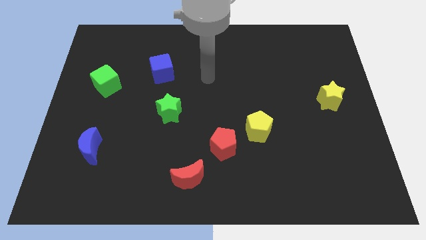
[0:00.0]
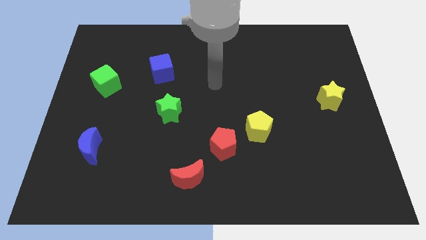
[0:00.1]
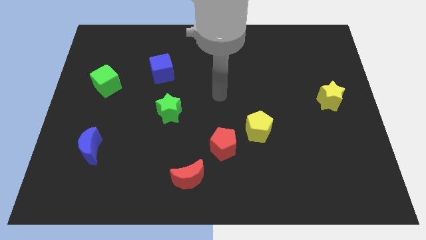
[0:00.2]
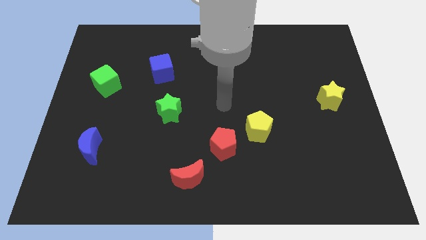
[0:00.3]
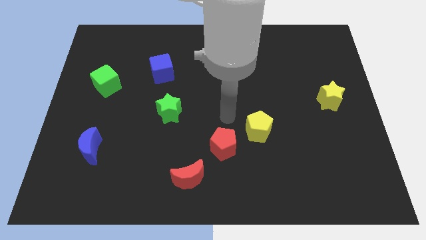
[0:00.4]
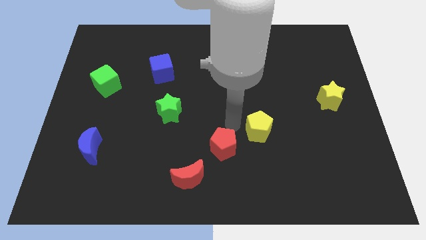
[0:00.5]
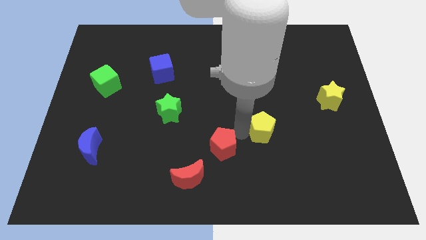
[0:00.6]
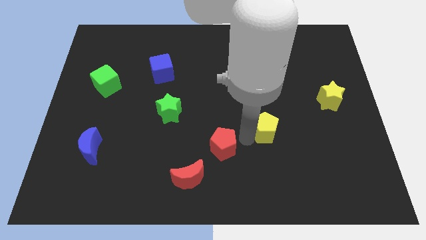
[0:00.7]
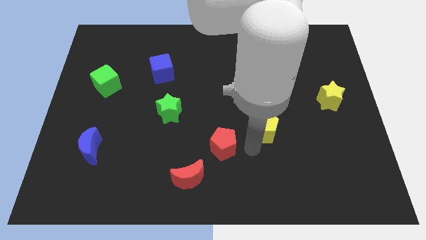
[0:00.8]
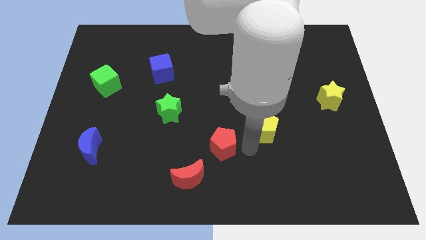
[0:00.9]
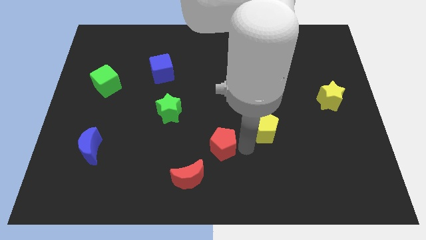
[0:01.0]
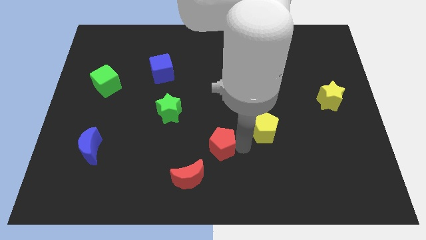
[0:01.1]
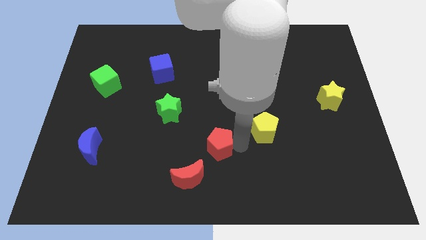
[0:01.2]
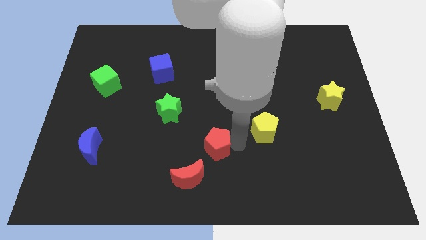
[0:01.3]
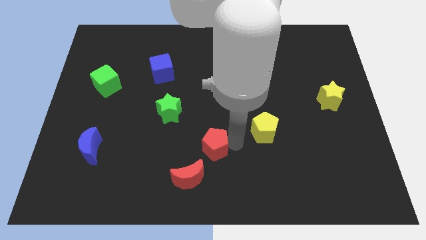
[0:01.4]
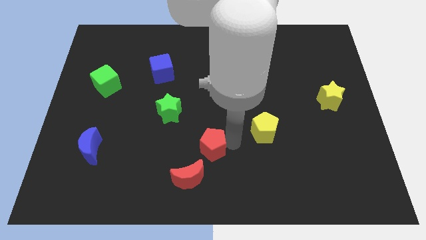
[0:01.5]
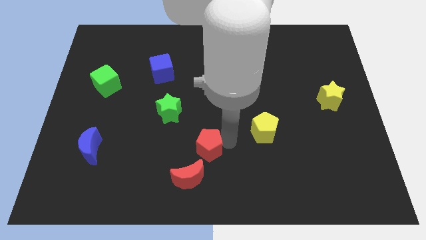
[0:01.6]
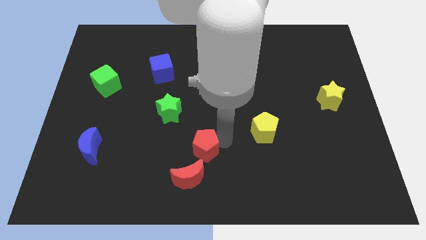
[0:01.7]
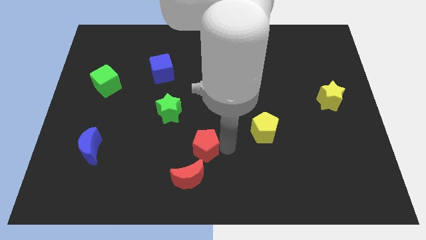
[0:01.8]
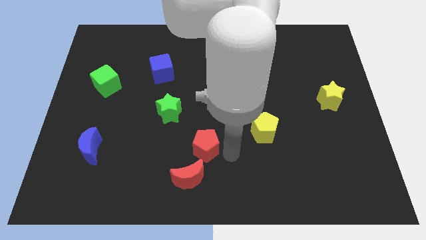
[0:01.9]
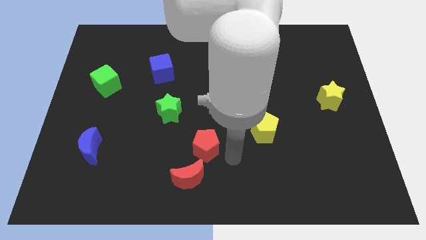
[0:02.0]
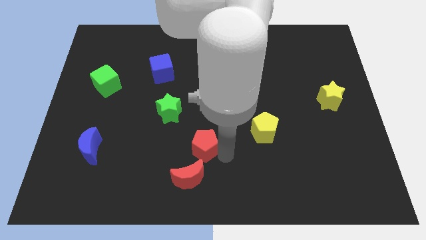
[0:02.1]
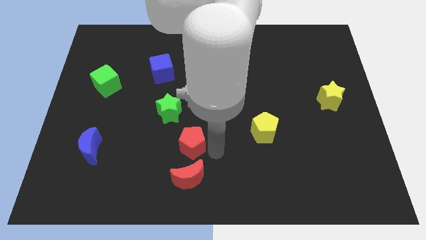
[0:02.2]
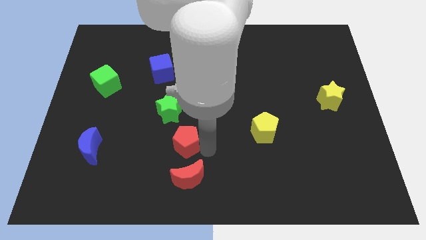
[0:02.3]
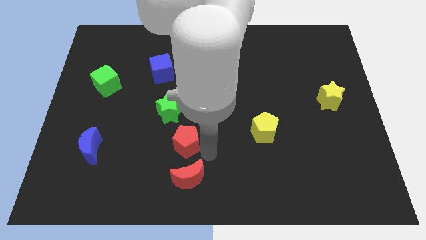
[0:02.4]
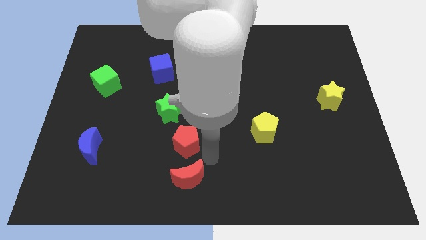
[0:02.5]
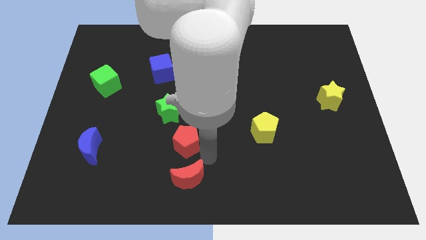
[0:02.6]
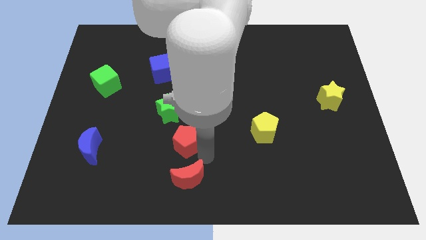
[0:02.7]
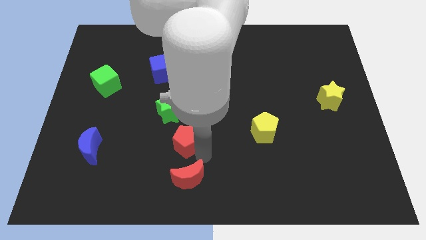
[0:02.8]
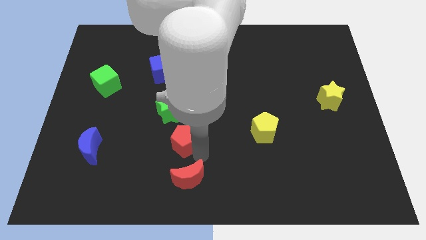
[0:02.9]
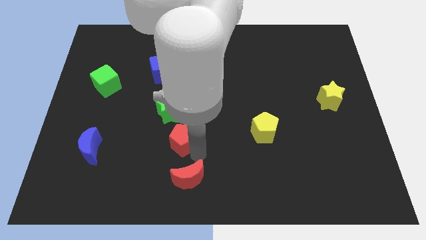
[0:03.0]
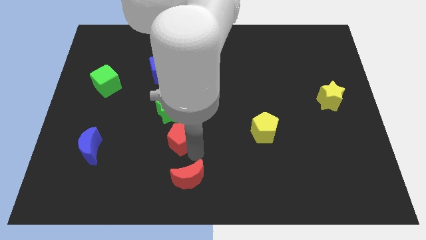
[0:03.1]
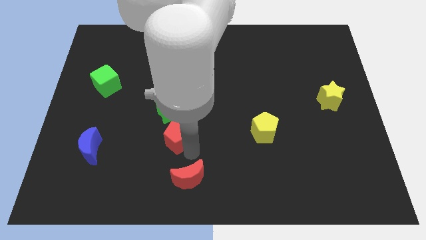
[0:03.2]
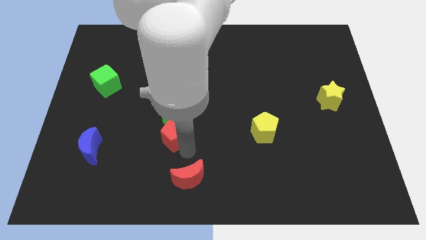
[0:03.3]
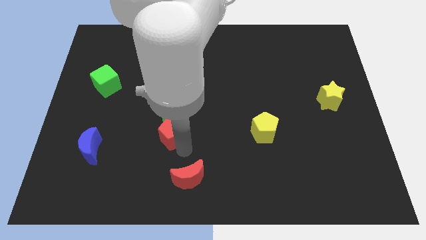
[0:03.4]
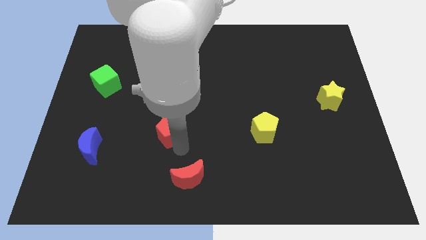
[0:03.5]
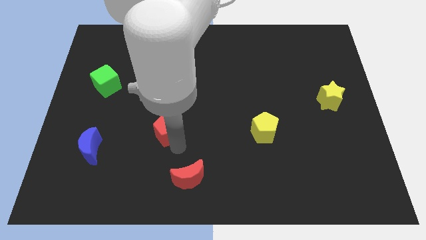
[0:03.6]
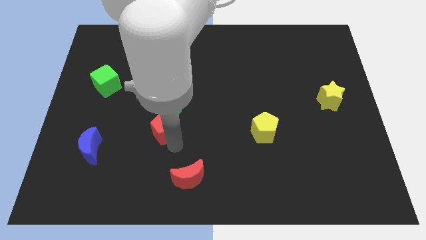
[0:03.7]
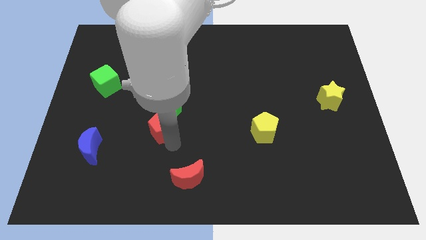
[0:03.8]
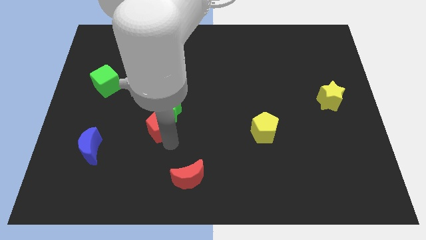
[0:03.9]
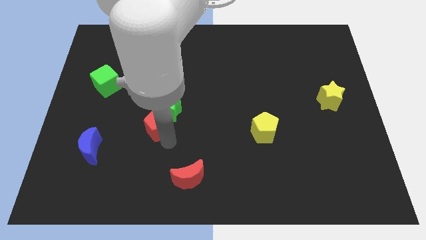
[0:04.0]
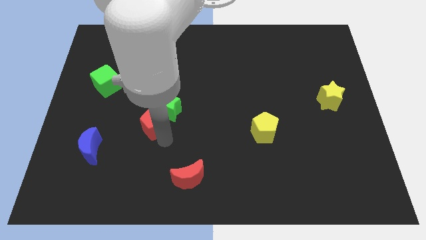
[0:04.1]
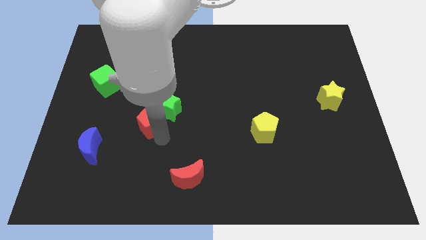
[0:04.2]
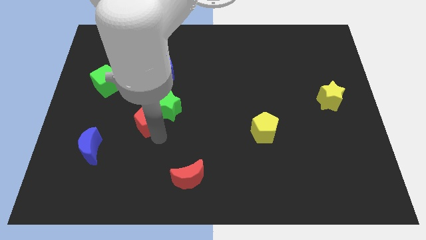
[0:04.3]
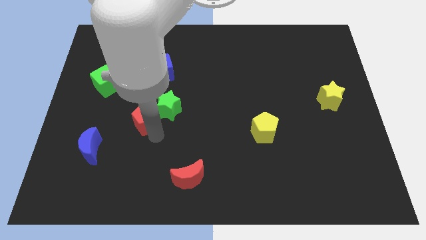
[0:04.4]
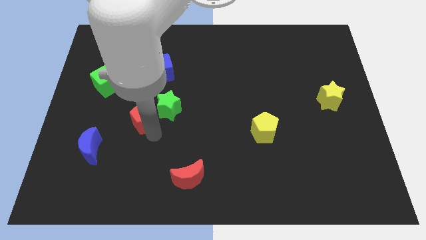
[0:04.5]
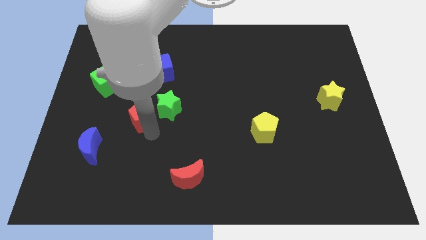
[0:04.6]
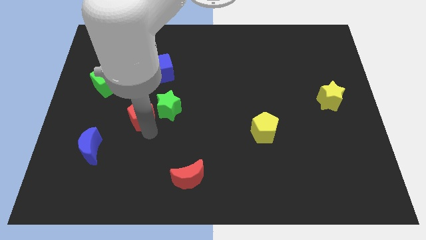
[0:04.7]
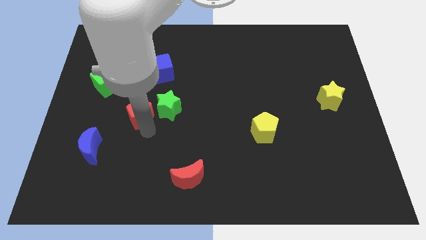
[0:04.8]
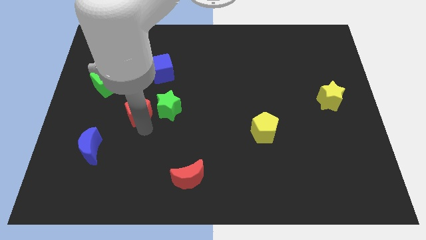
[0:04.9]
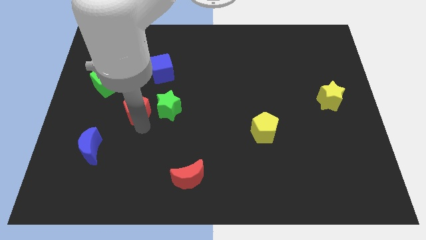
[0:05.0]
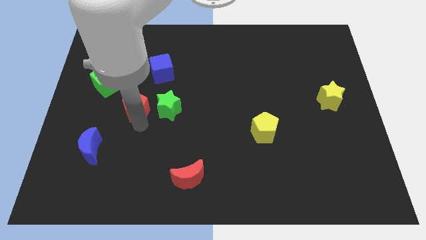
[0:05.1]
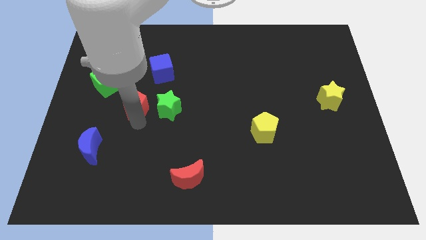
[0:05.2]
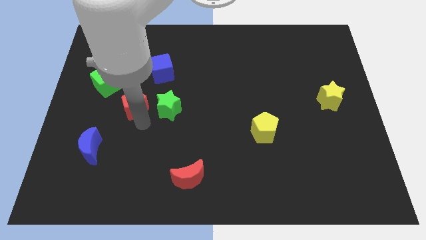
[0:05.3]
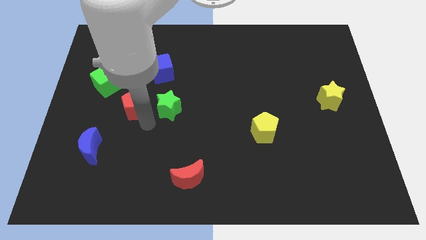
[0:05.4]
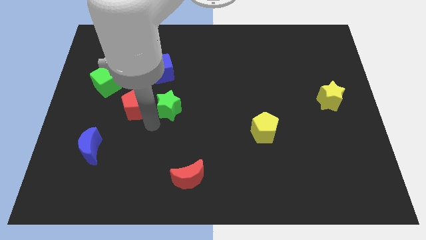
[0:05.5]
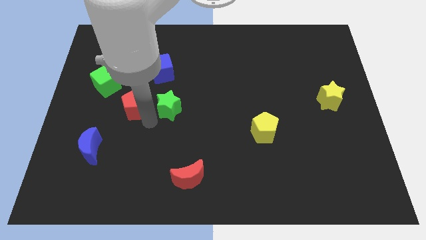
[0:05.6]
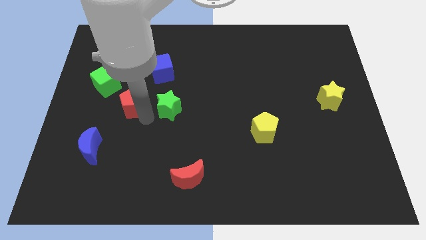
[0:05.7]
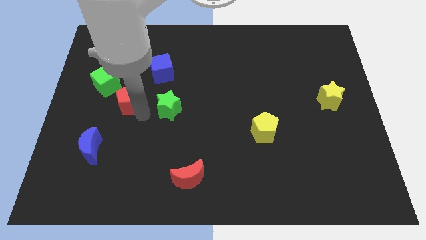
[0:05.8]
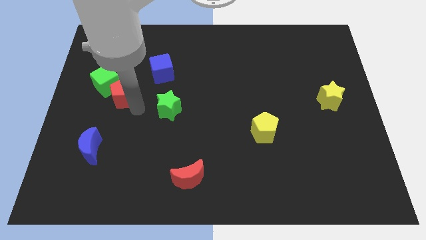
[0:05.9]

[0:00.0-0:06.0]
push the red pentagon to the green cube

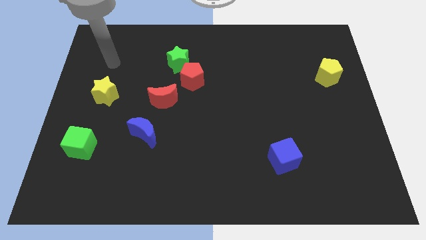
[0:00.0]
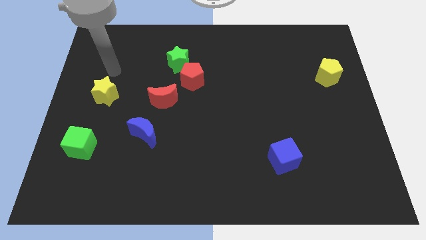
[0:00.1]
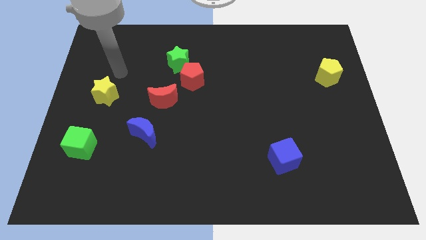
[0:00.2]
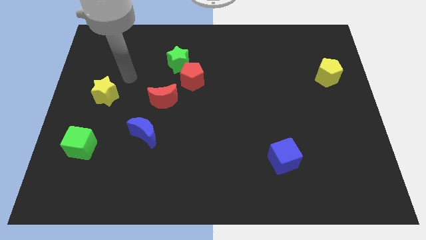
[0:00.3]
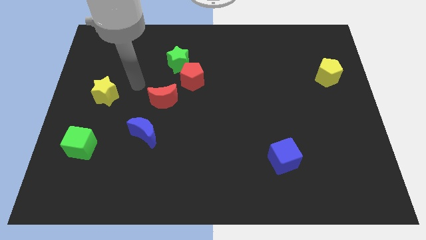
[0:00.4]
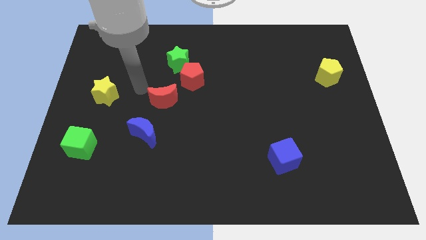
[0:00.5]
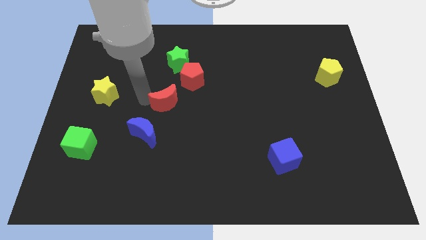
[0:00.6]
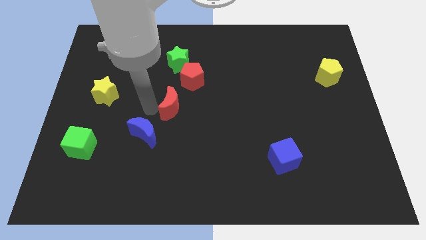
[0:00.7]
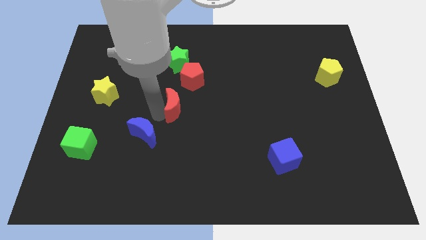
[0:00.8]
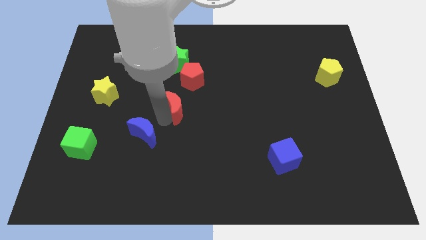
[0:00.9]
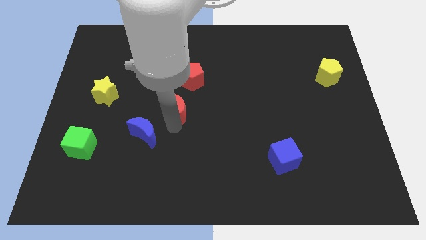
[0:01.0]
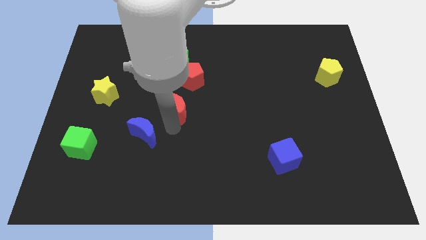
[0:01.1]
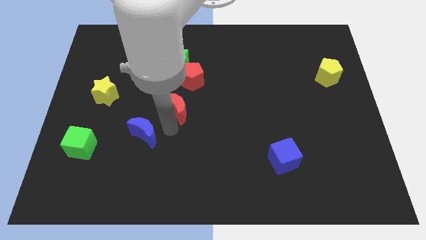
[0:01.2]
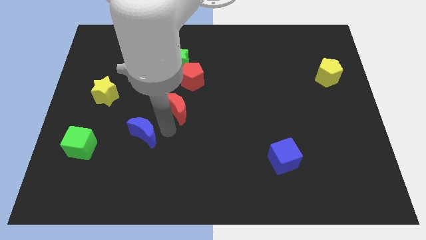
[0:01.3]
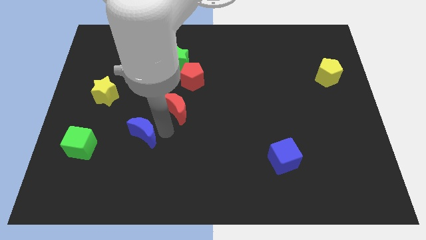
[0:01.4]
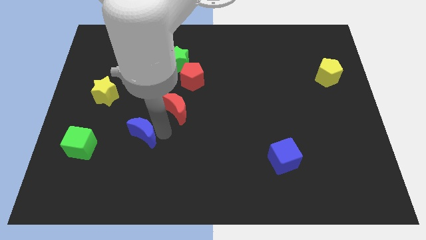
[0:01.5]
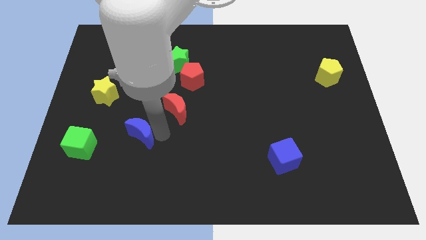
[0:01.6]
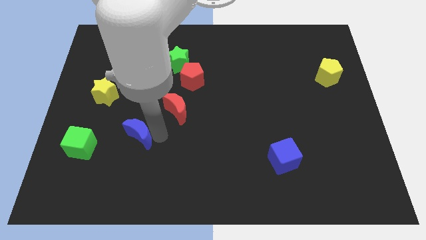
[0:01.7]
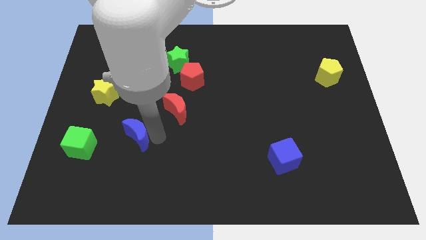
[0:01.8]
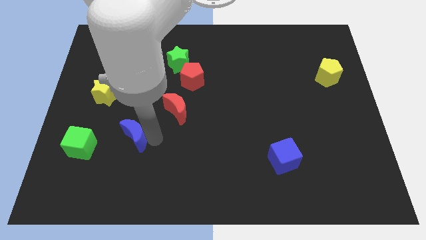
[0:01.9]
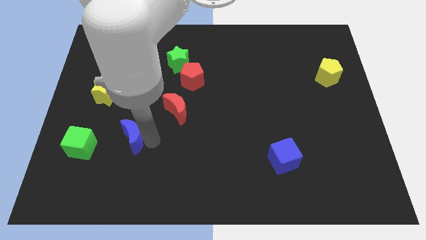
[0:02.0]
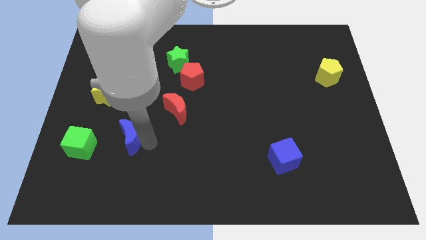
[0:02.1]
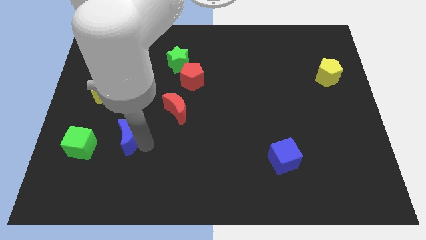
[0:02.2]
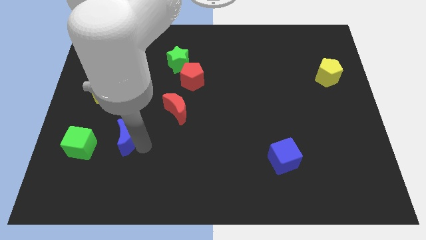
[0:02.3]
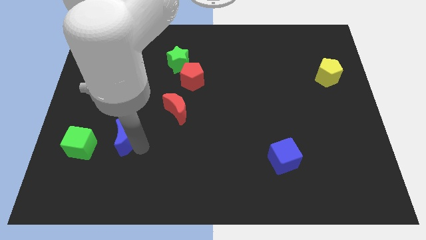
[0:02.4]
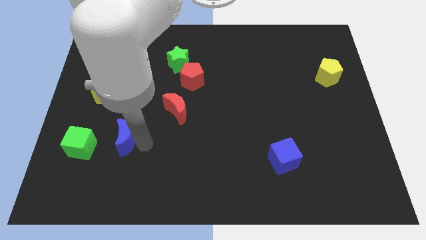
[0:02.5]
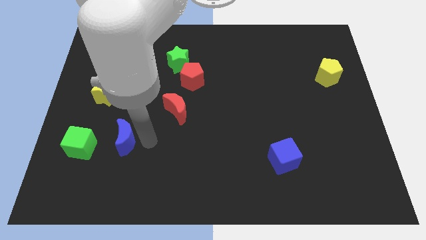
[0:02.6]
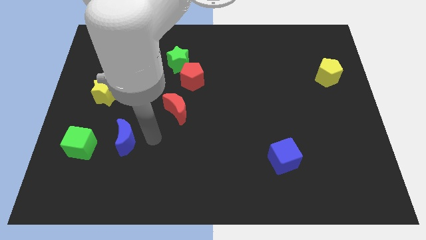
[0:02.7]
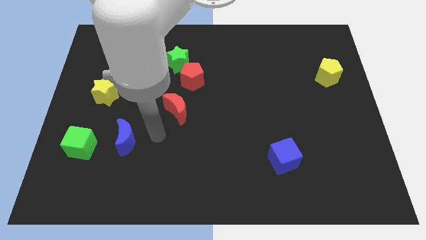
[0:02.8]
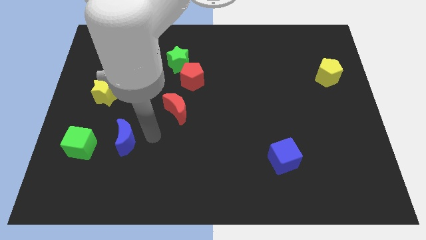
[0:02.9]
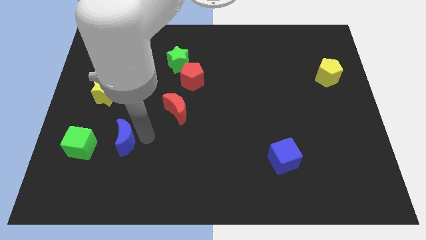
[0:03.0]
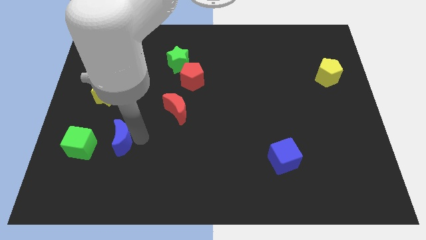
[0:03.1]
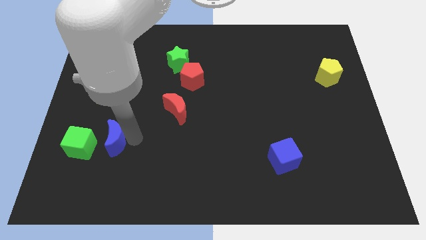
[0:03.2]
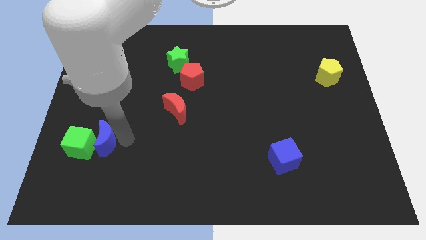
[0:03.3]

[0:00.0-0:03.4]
move the blue moon towards the green cube
